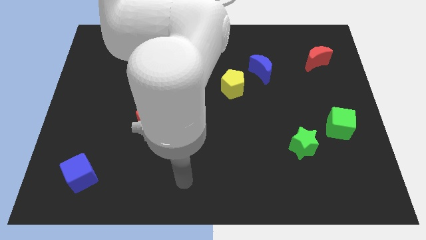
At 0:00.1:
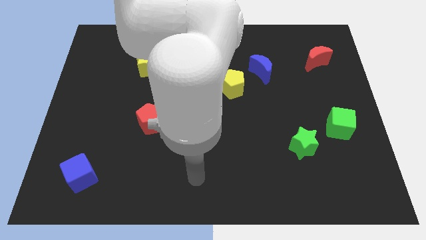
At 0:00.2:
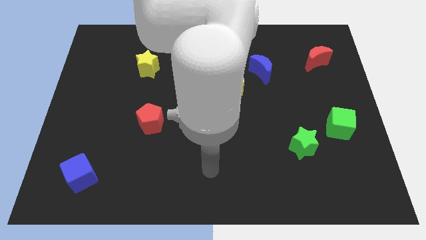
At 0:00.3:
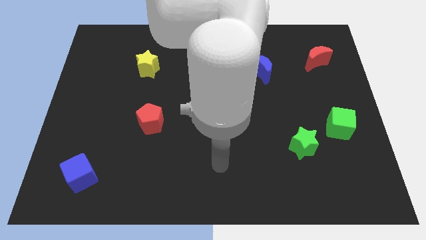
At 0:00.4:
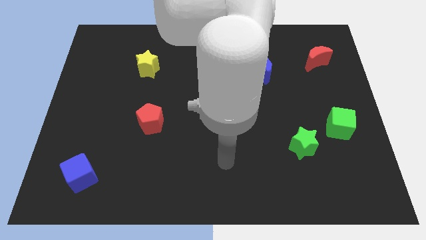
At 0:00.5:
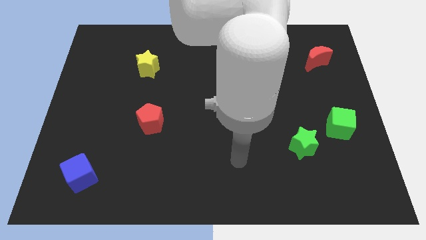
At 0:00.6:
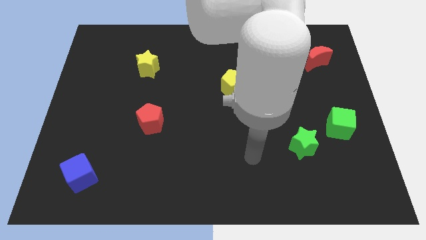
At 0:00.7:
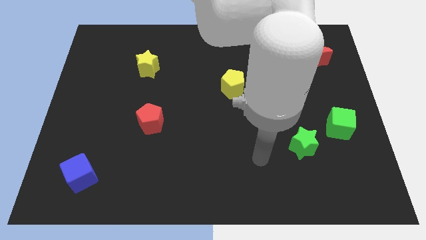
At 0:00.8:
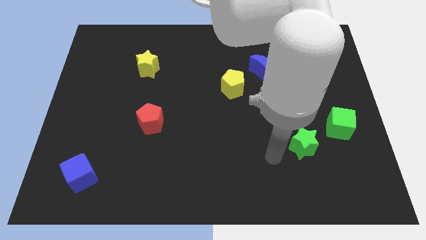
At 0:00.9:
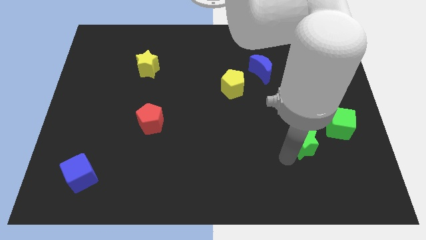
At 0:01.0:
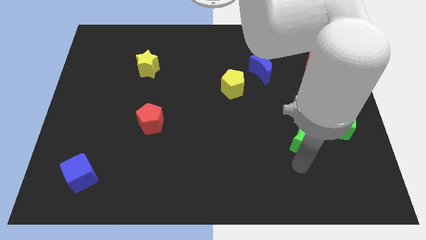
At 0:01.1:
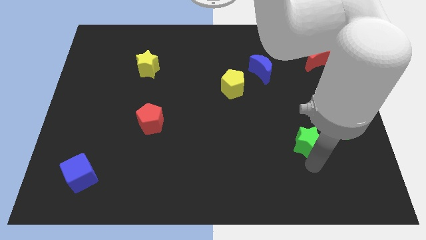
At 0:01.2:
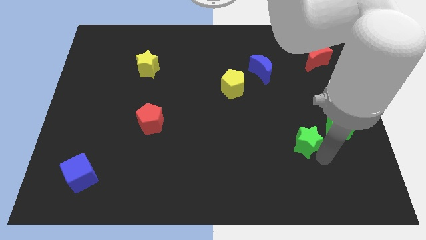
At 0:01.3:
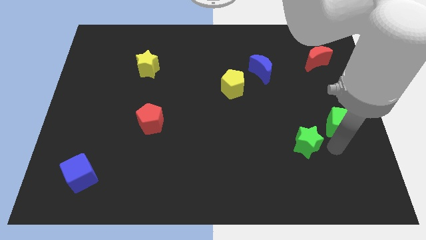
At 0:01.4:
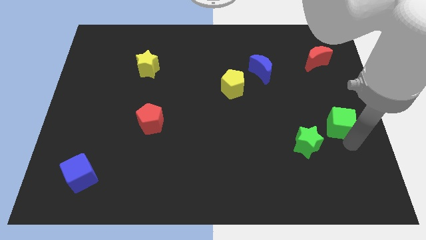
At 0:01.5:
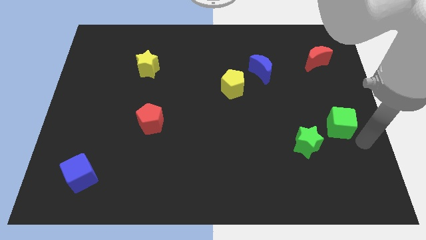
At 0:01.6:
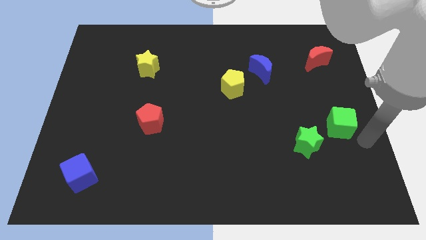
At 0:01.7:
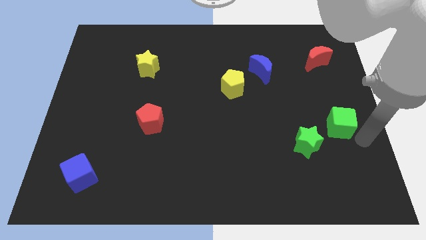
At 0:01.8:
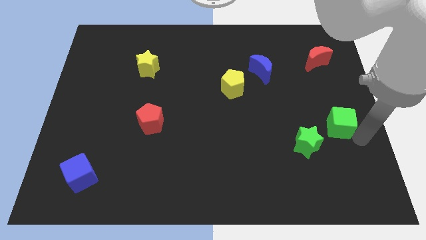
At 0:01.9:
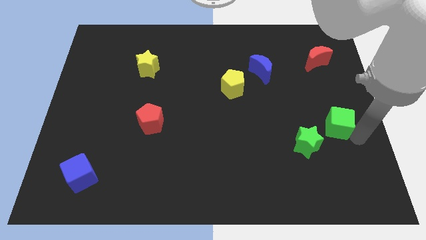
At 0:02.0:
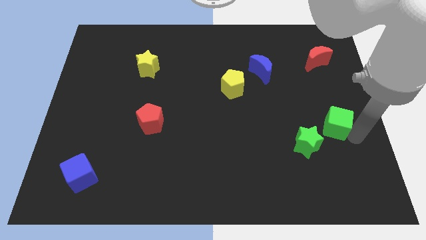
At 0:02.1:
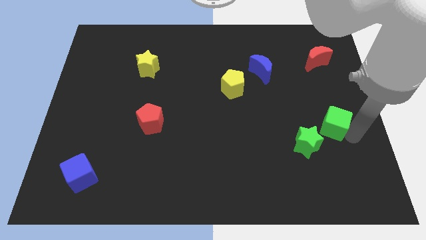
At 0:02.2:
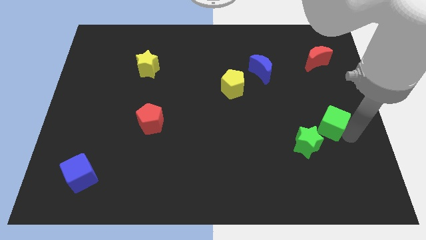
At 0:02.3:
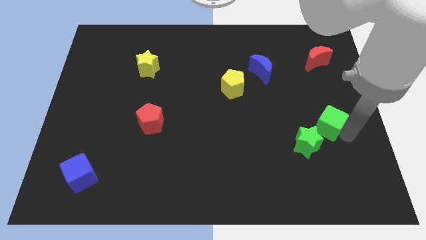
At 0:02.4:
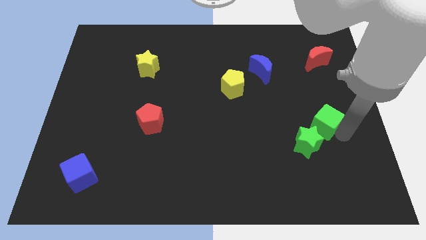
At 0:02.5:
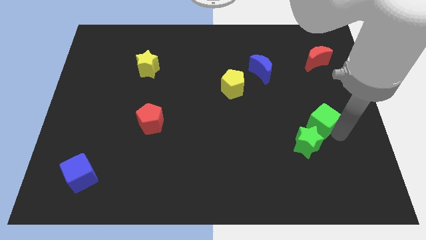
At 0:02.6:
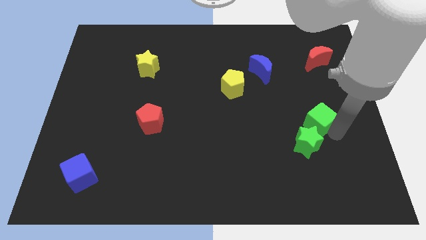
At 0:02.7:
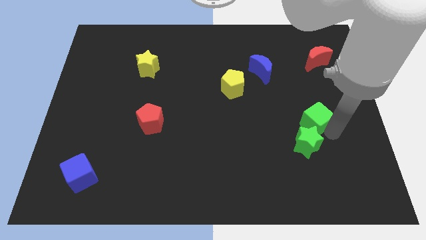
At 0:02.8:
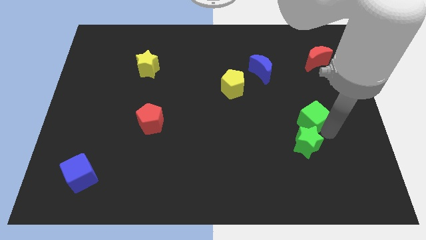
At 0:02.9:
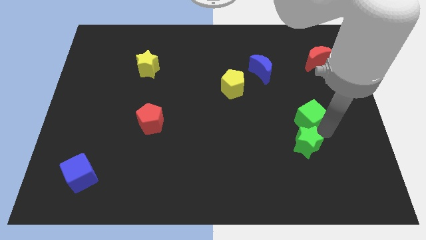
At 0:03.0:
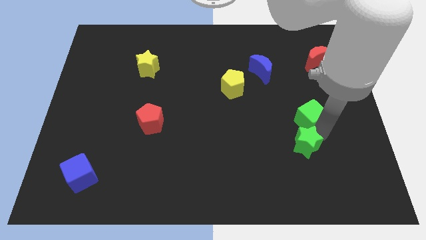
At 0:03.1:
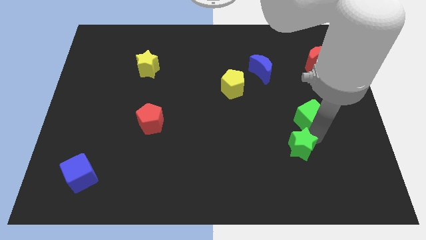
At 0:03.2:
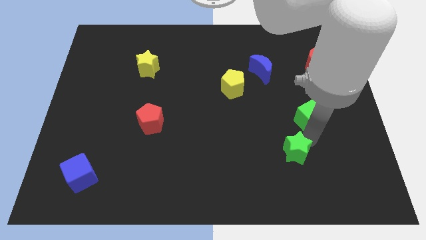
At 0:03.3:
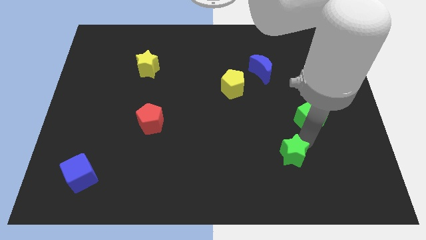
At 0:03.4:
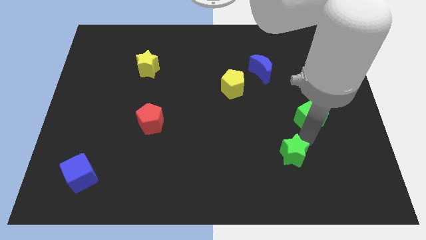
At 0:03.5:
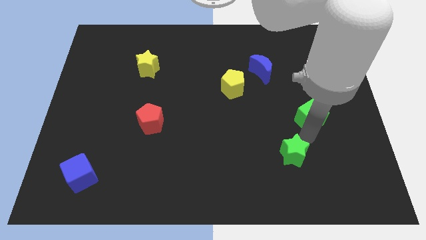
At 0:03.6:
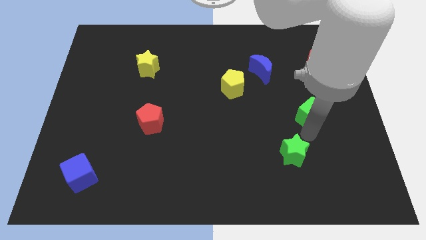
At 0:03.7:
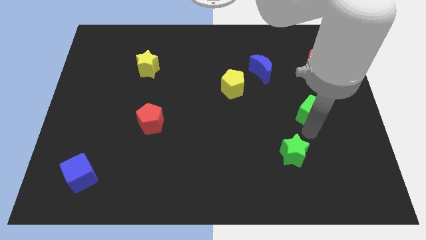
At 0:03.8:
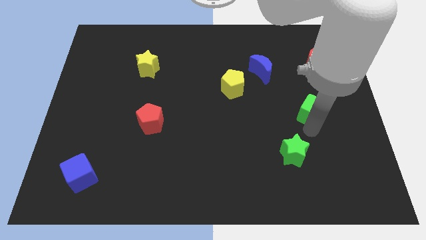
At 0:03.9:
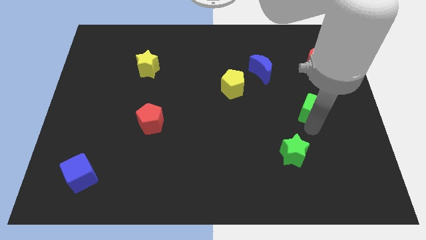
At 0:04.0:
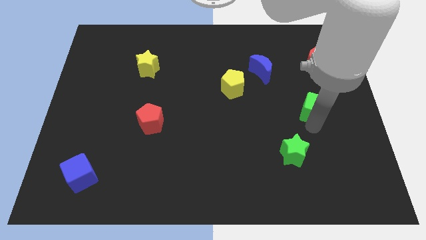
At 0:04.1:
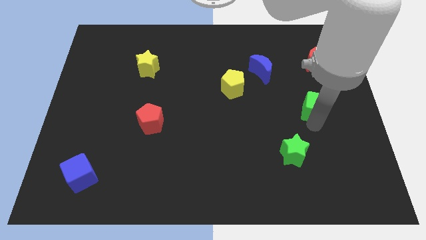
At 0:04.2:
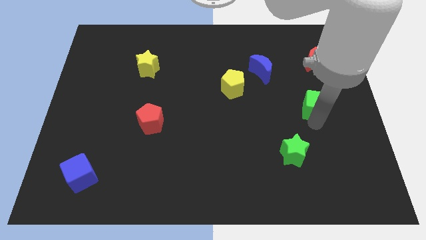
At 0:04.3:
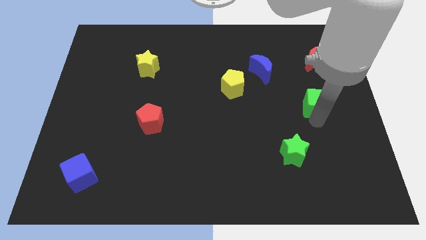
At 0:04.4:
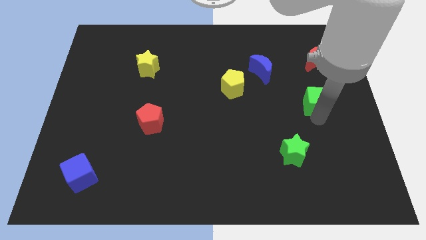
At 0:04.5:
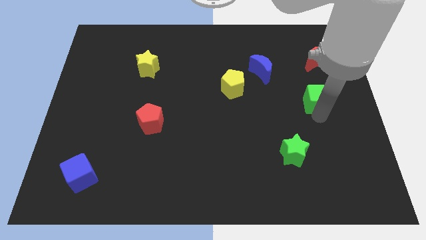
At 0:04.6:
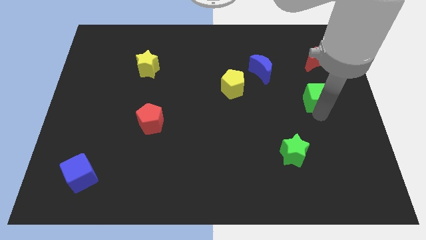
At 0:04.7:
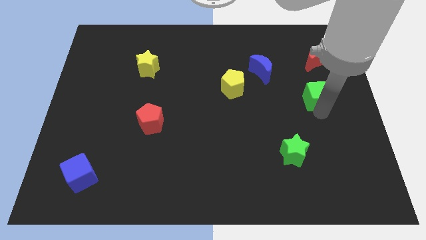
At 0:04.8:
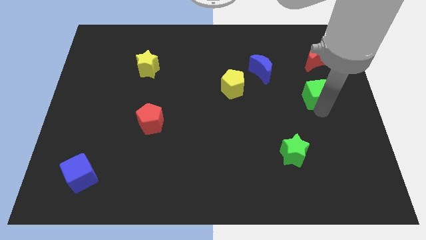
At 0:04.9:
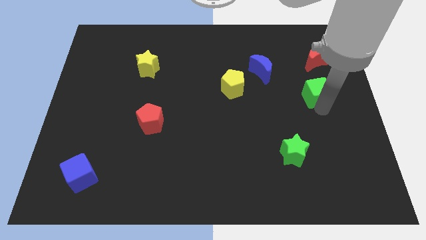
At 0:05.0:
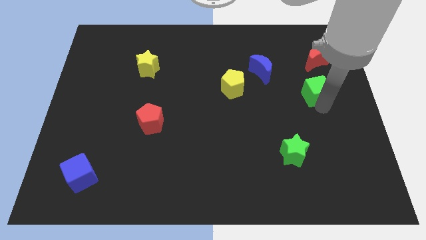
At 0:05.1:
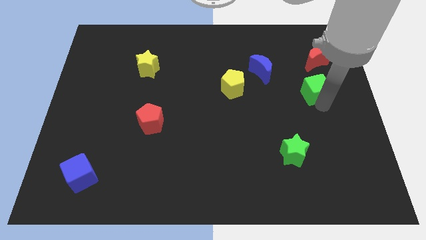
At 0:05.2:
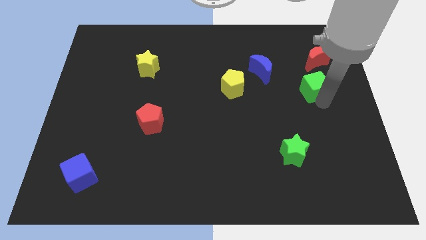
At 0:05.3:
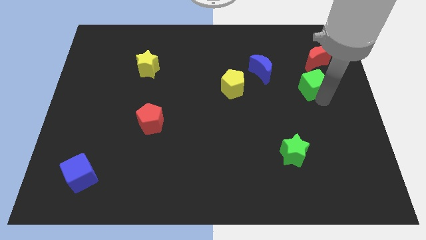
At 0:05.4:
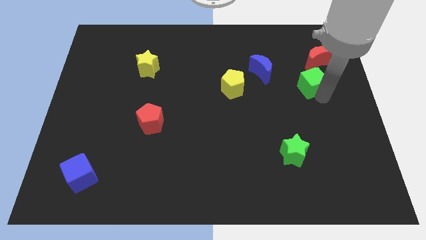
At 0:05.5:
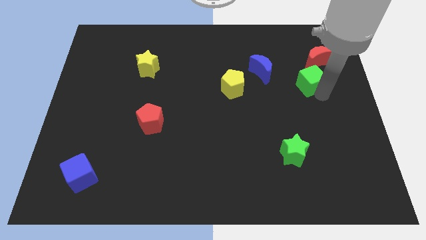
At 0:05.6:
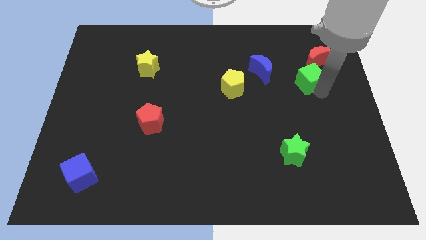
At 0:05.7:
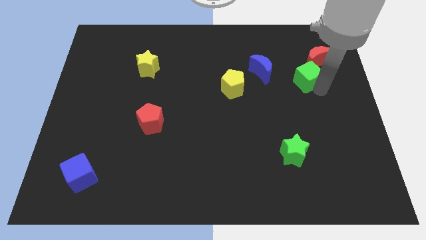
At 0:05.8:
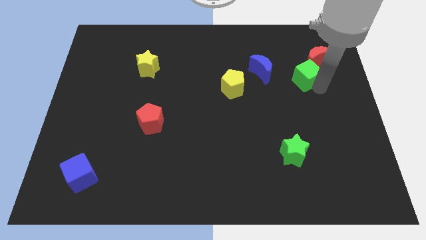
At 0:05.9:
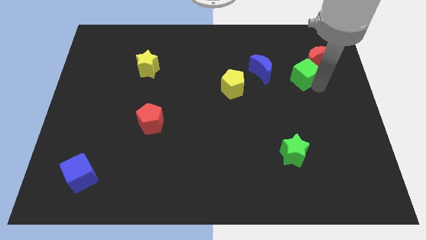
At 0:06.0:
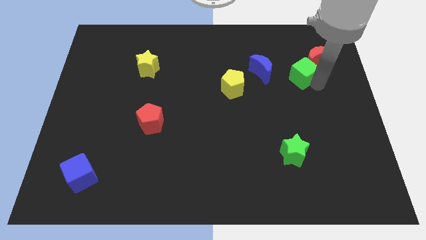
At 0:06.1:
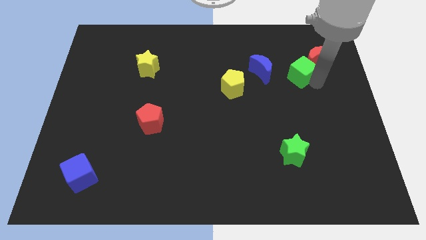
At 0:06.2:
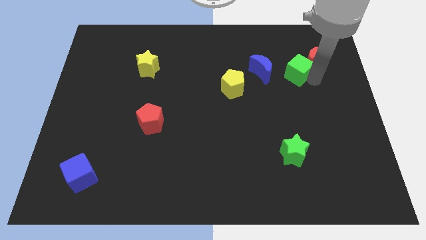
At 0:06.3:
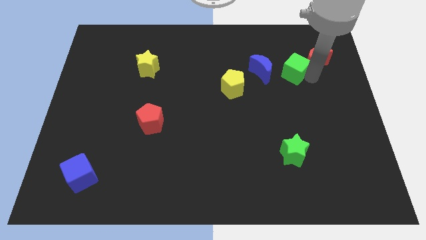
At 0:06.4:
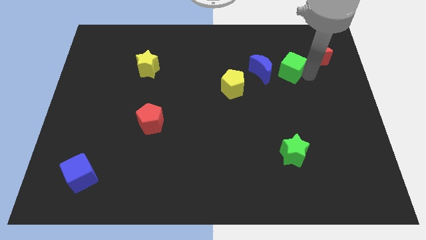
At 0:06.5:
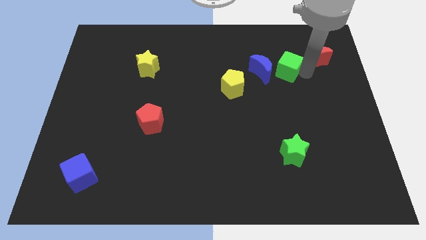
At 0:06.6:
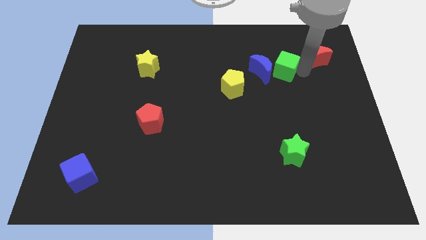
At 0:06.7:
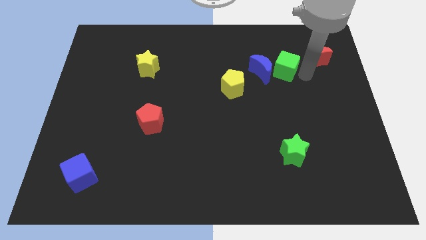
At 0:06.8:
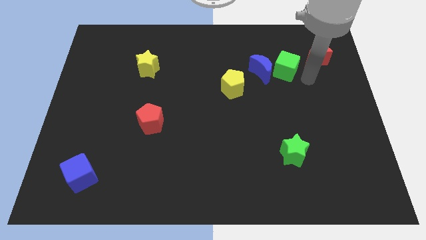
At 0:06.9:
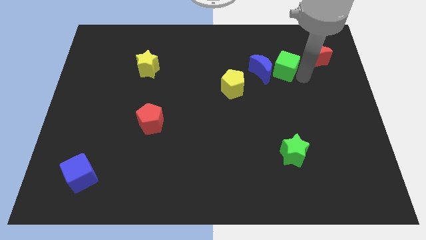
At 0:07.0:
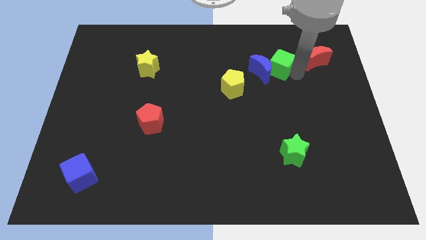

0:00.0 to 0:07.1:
slide the green cube upwards and left

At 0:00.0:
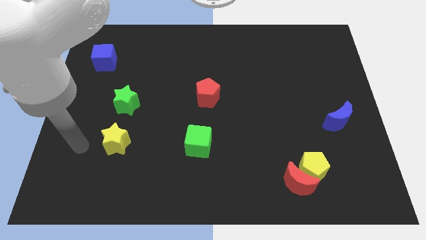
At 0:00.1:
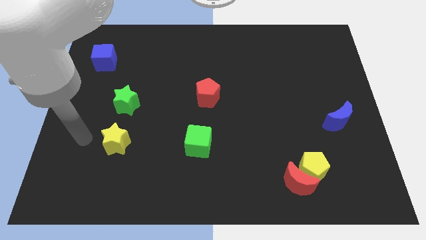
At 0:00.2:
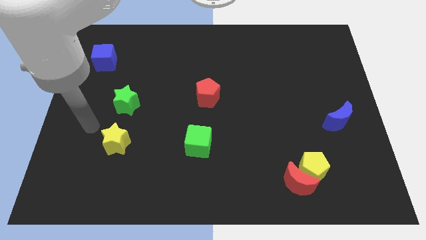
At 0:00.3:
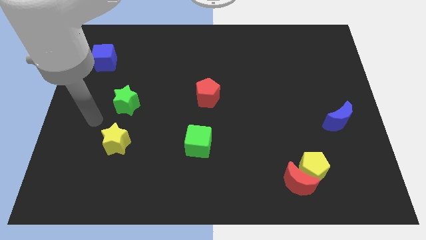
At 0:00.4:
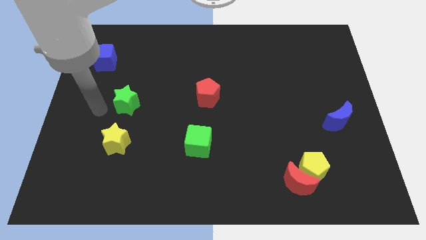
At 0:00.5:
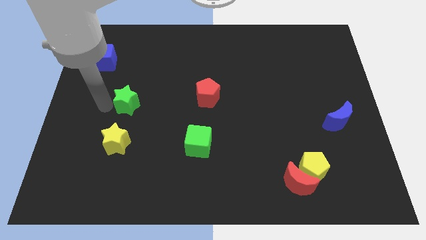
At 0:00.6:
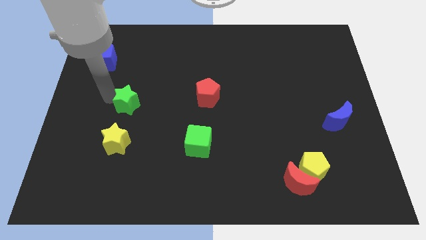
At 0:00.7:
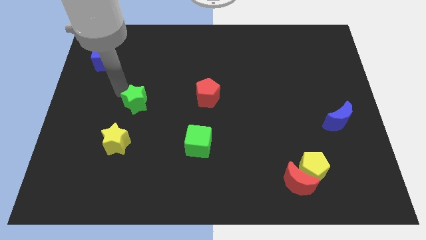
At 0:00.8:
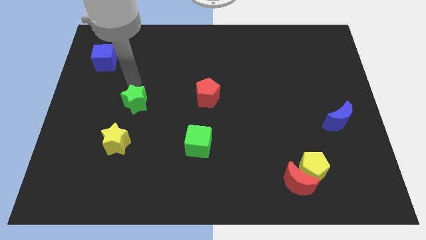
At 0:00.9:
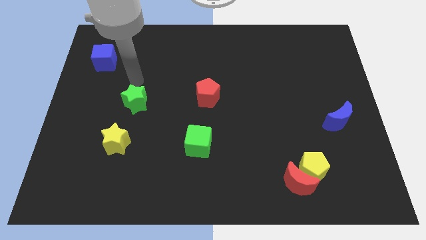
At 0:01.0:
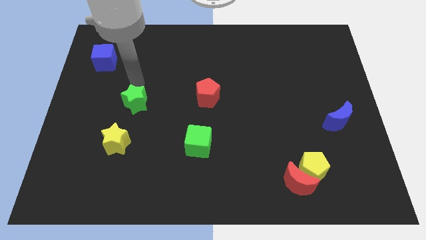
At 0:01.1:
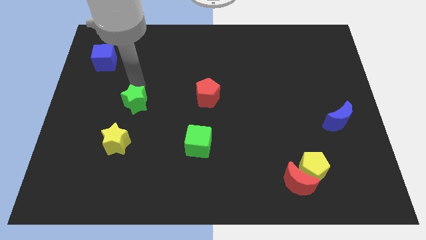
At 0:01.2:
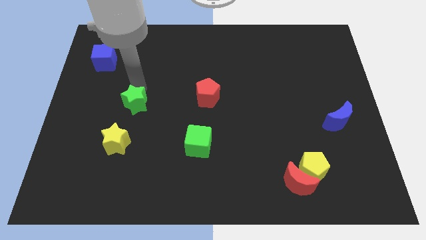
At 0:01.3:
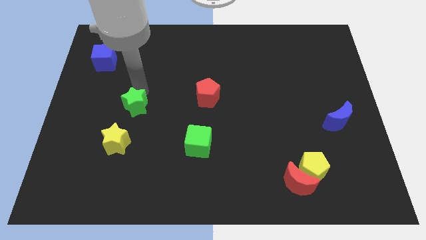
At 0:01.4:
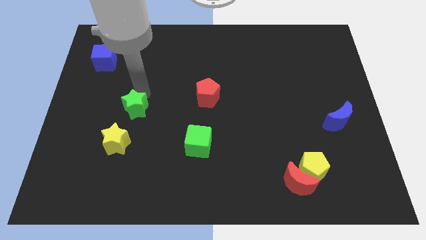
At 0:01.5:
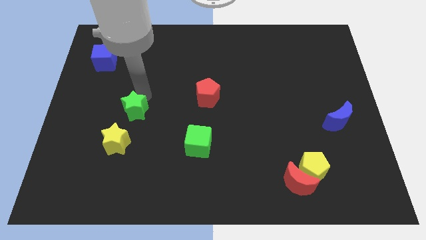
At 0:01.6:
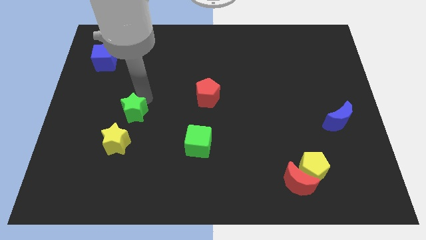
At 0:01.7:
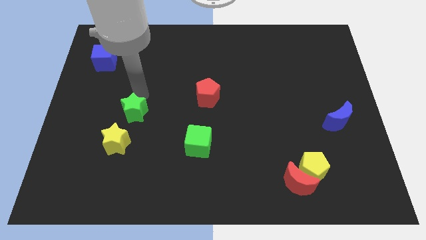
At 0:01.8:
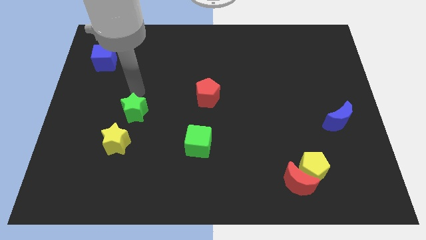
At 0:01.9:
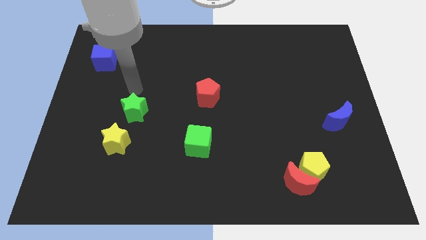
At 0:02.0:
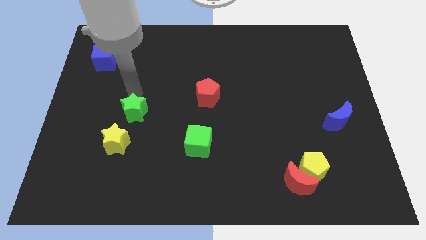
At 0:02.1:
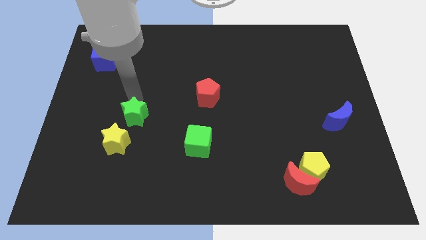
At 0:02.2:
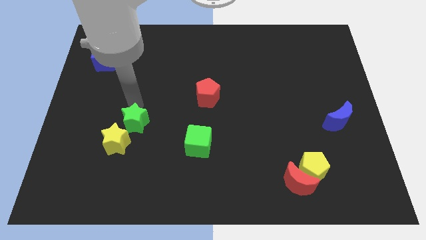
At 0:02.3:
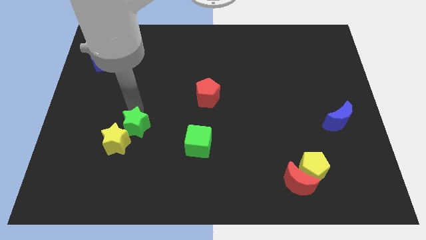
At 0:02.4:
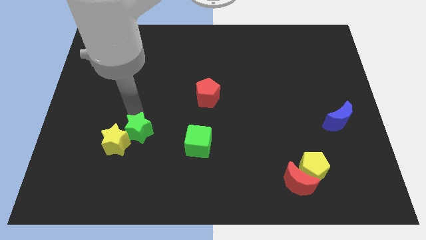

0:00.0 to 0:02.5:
slide the green star downwards a bit
